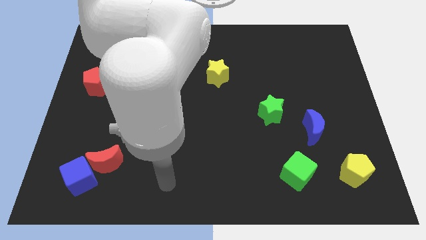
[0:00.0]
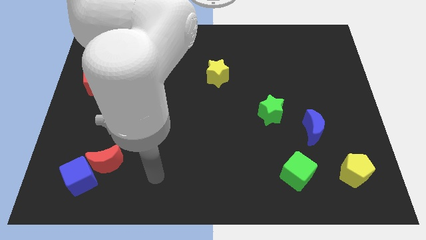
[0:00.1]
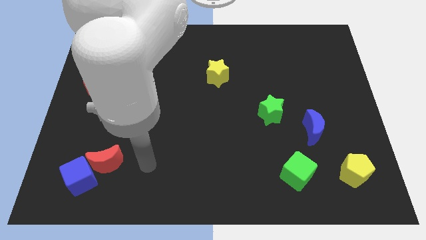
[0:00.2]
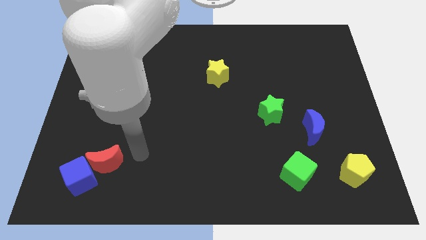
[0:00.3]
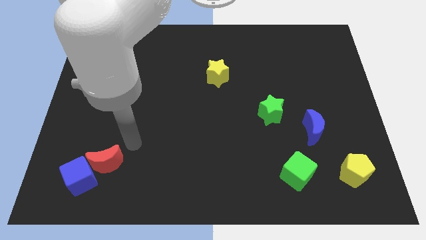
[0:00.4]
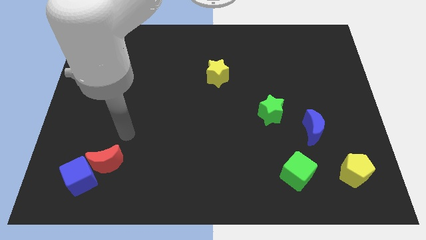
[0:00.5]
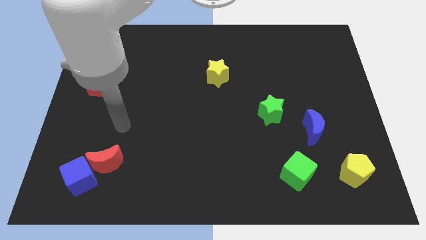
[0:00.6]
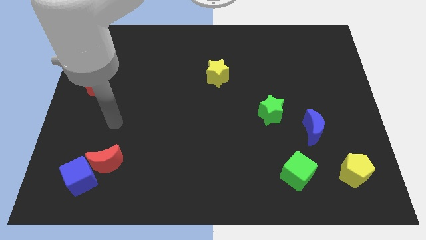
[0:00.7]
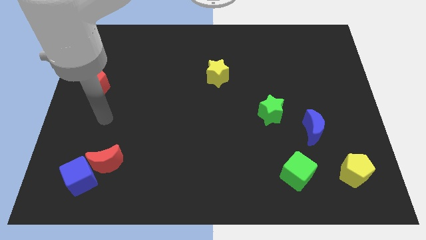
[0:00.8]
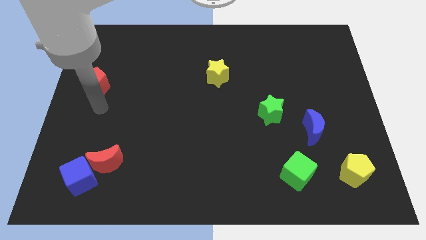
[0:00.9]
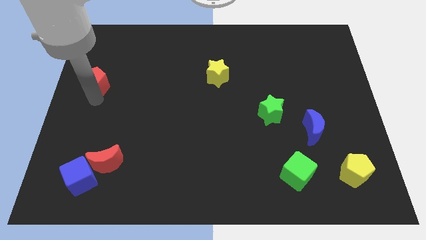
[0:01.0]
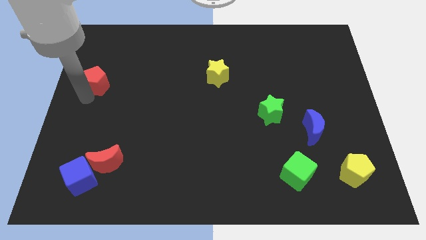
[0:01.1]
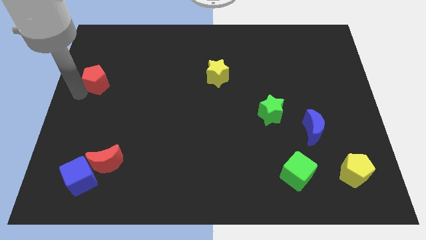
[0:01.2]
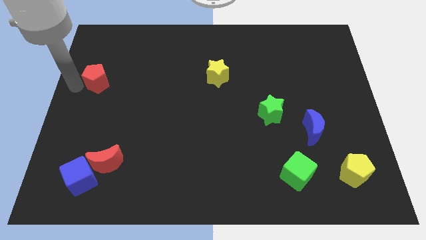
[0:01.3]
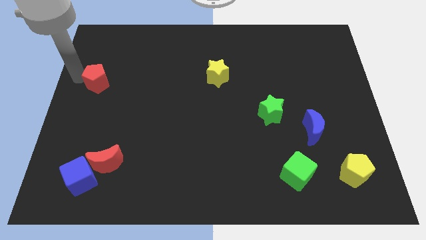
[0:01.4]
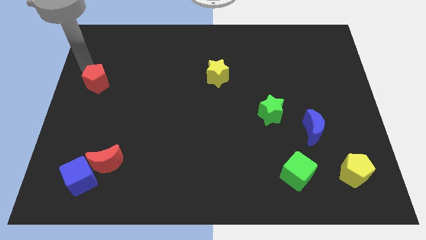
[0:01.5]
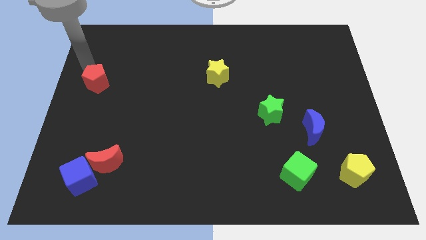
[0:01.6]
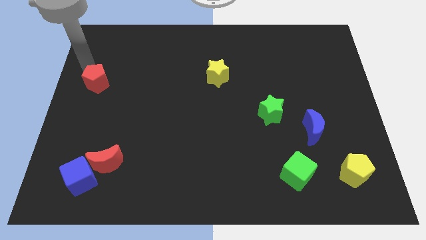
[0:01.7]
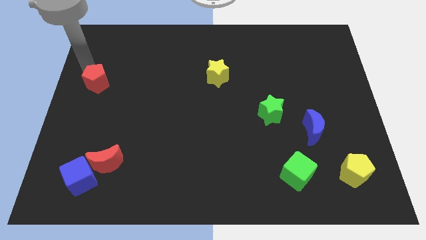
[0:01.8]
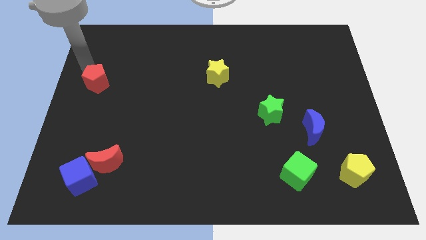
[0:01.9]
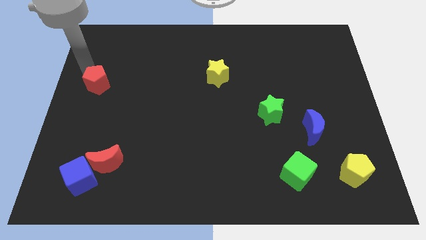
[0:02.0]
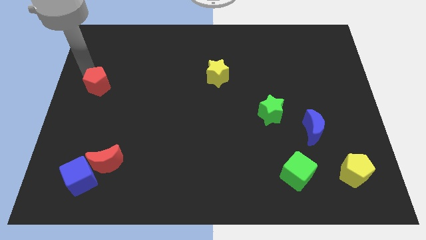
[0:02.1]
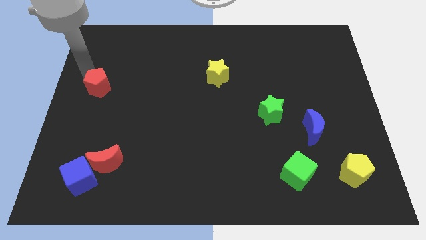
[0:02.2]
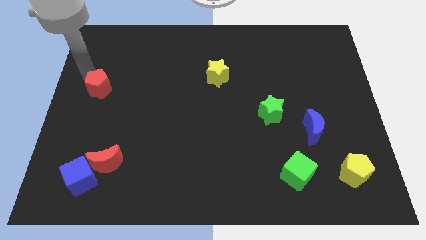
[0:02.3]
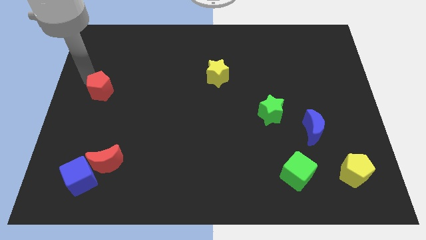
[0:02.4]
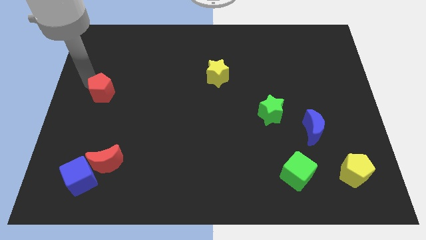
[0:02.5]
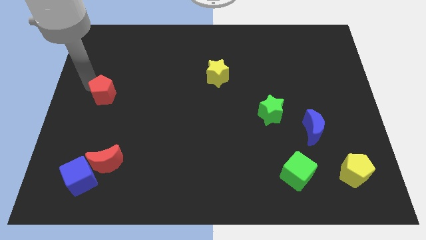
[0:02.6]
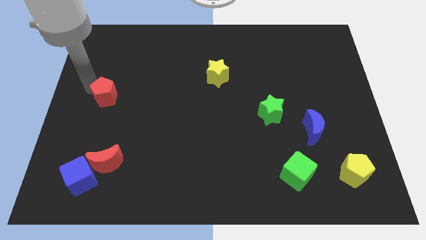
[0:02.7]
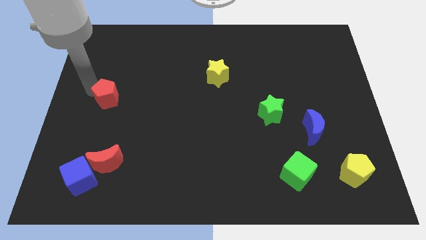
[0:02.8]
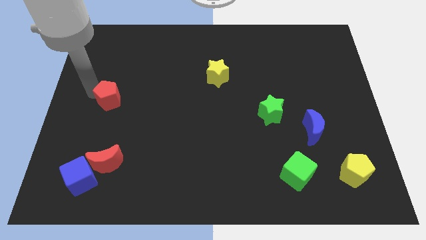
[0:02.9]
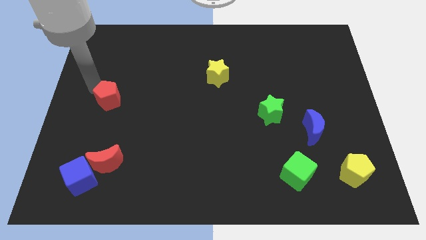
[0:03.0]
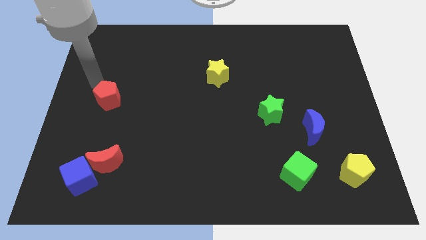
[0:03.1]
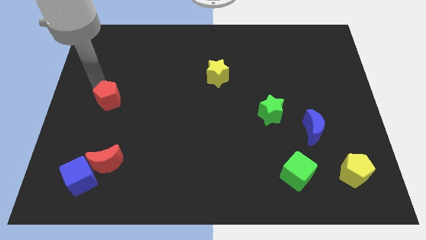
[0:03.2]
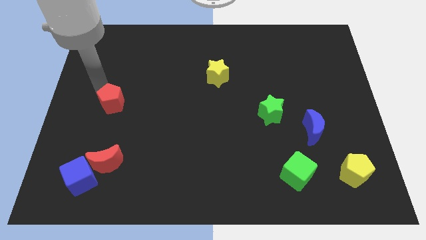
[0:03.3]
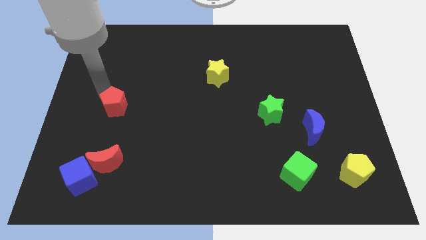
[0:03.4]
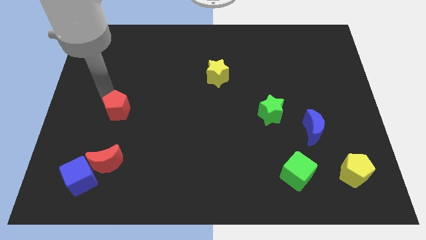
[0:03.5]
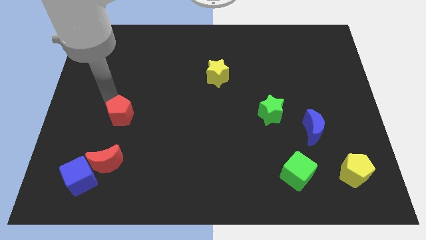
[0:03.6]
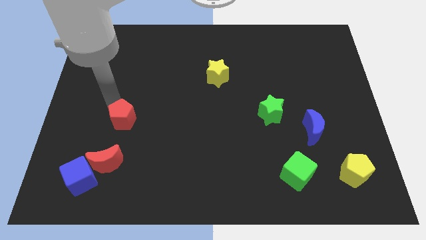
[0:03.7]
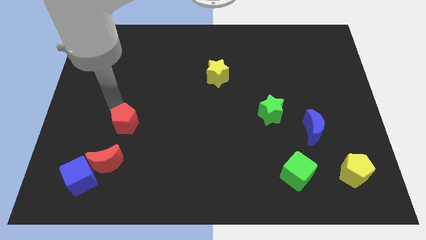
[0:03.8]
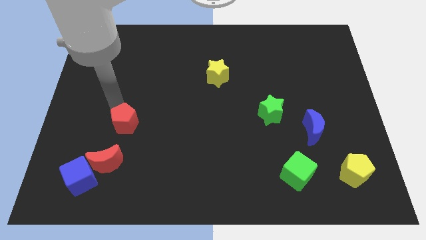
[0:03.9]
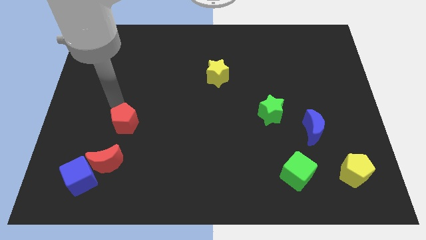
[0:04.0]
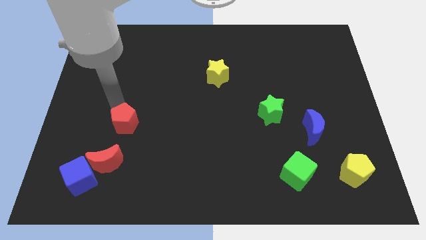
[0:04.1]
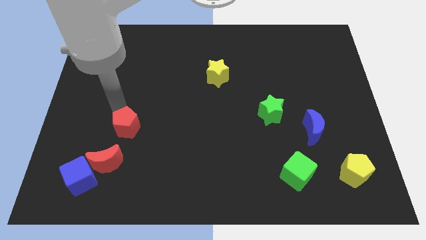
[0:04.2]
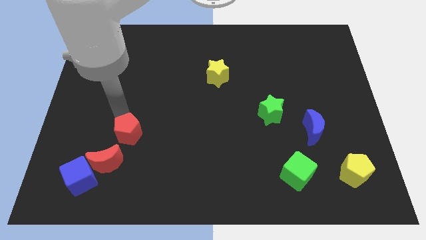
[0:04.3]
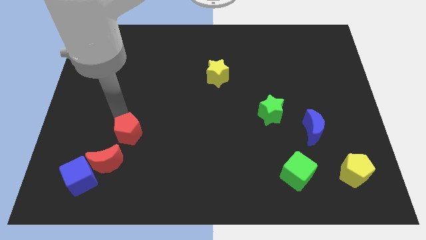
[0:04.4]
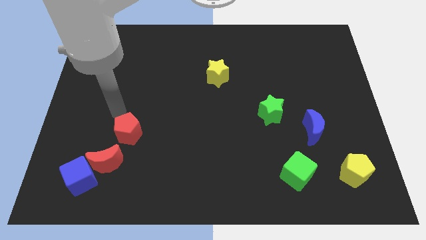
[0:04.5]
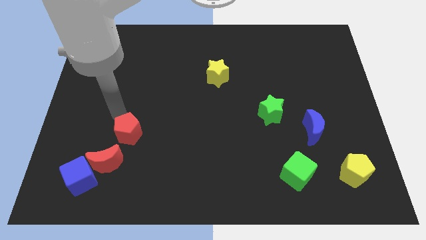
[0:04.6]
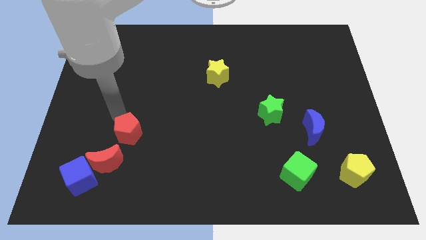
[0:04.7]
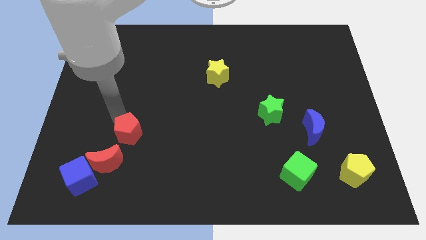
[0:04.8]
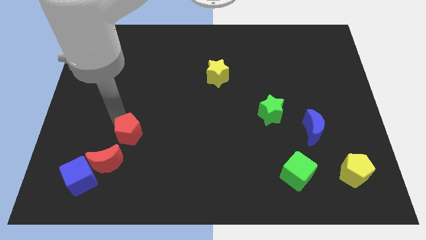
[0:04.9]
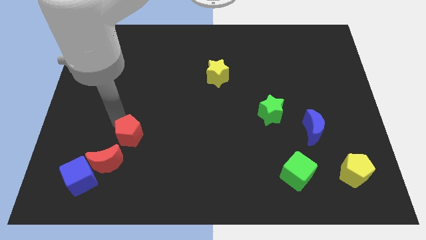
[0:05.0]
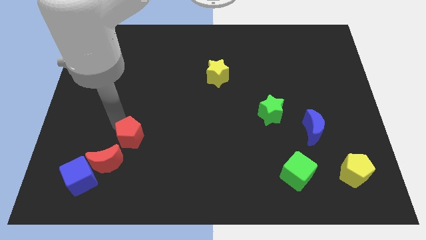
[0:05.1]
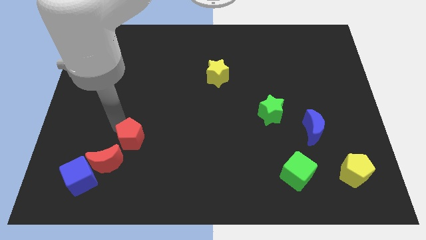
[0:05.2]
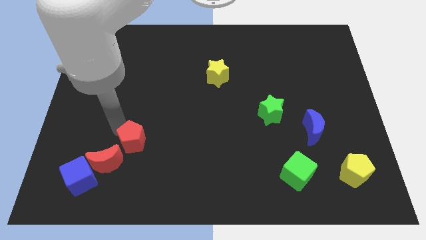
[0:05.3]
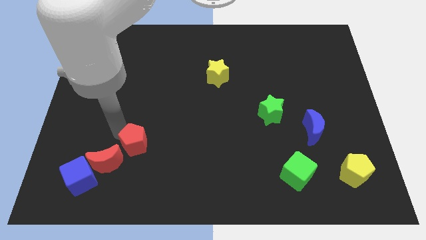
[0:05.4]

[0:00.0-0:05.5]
push the red pentagon right of the red moon

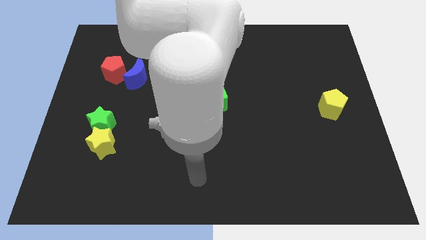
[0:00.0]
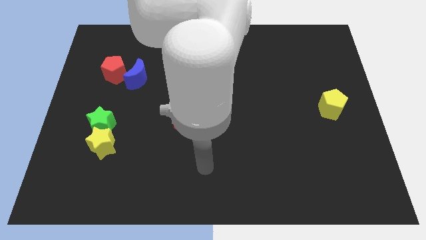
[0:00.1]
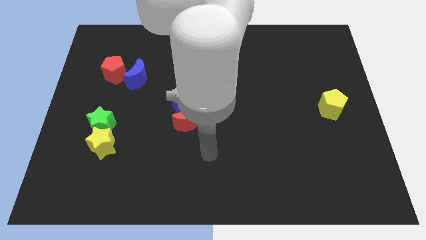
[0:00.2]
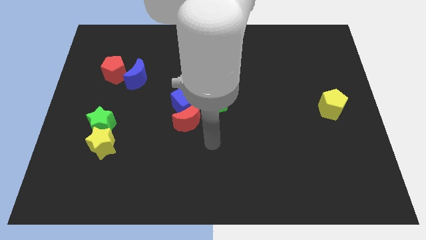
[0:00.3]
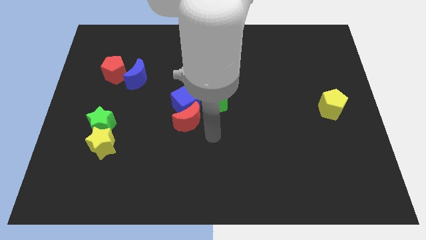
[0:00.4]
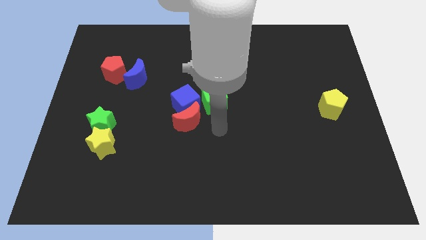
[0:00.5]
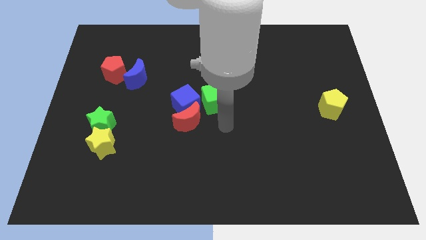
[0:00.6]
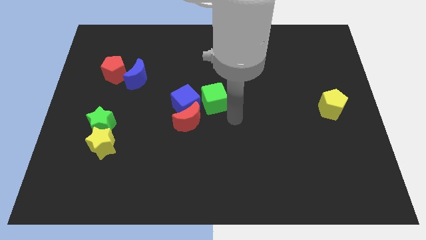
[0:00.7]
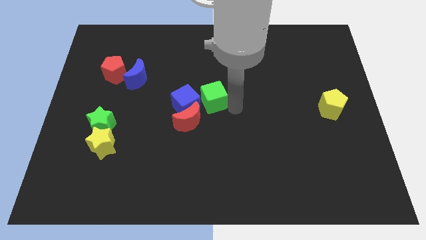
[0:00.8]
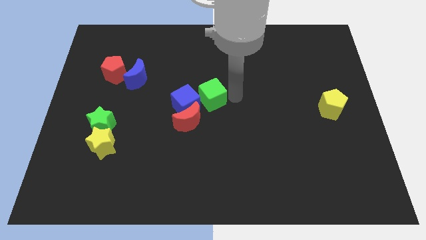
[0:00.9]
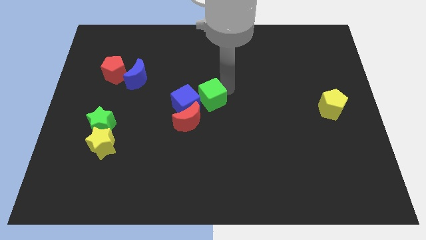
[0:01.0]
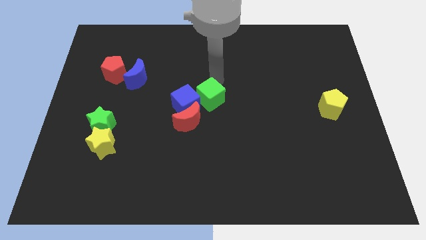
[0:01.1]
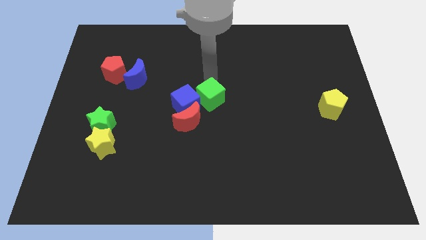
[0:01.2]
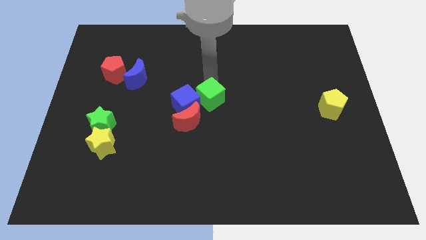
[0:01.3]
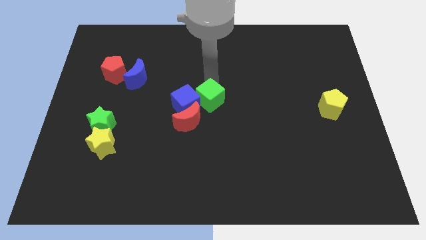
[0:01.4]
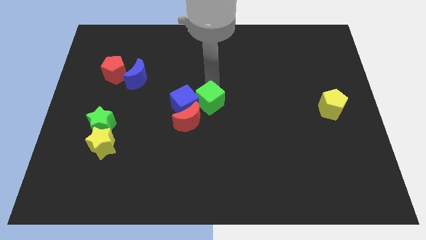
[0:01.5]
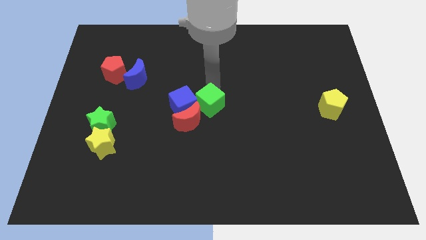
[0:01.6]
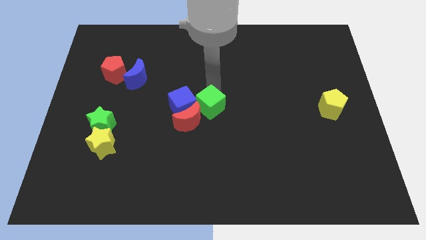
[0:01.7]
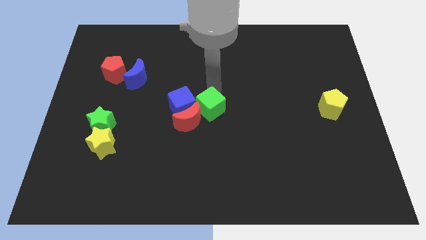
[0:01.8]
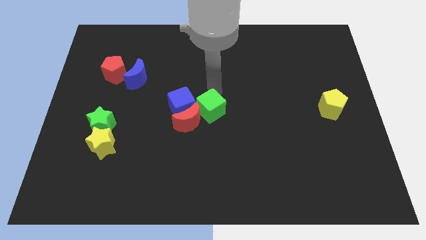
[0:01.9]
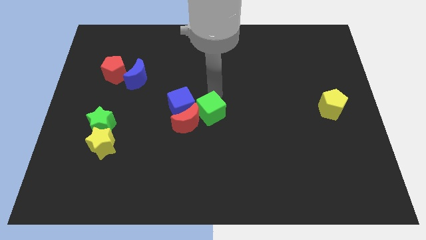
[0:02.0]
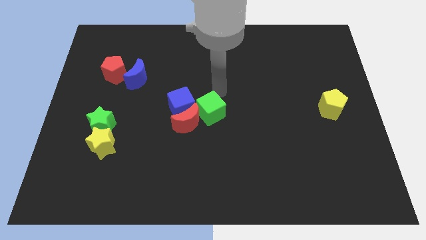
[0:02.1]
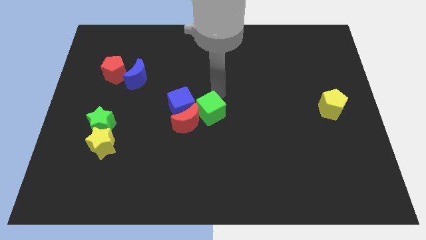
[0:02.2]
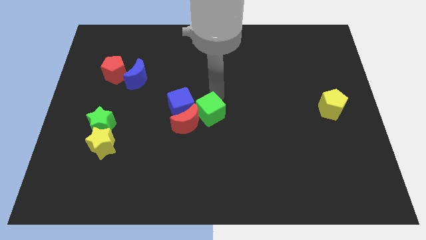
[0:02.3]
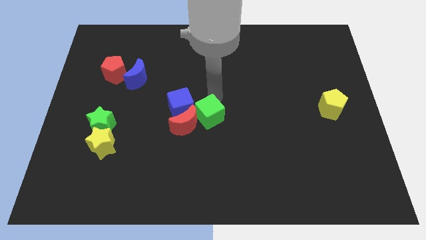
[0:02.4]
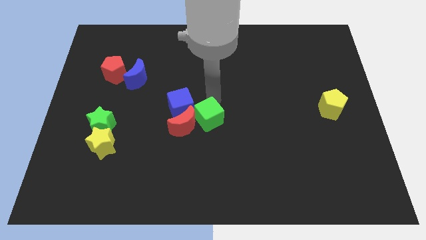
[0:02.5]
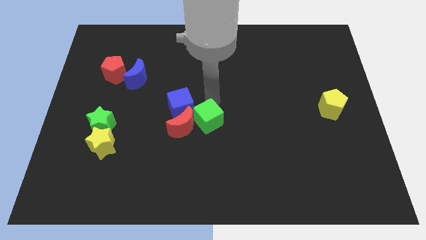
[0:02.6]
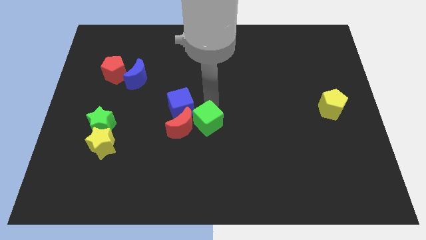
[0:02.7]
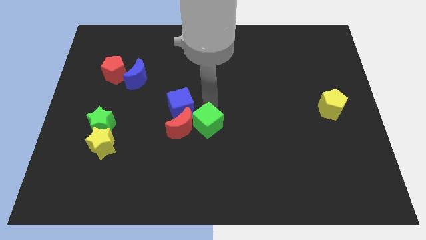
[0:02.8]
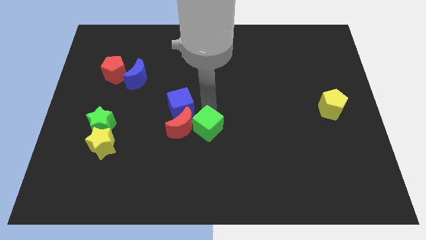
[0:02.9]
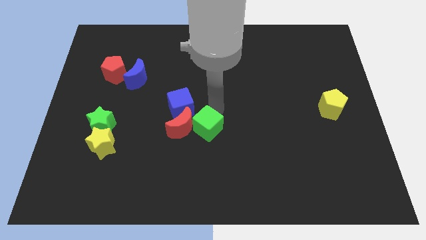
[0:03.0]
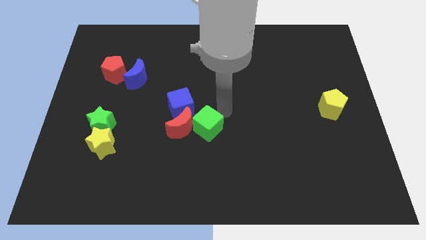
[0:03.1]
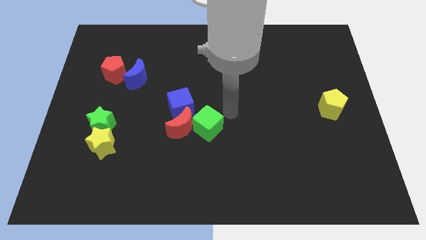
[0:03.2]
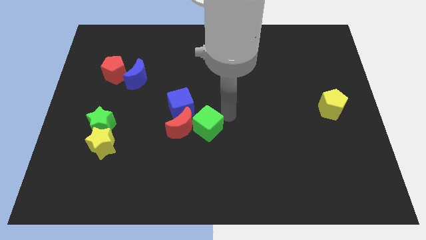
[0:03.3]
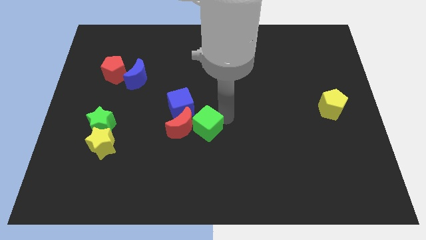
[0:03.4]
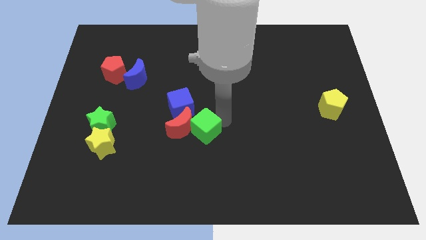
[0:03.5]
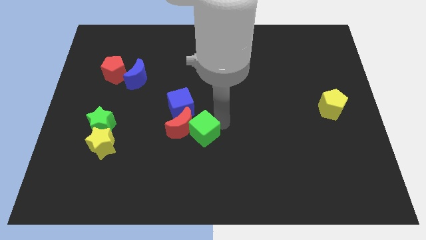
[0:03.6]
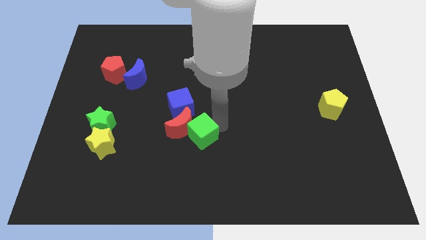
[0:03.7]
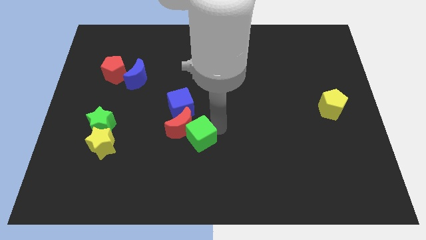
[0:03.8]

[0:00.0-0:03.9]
put the green cube below the blue cube
